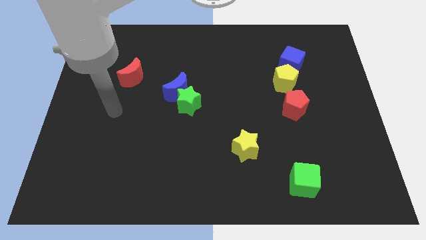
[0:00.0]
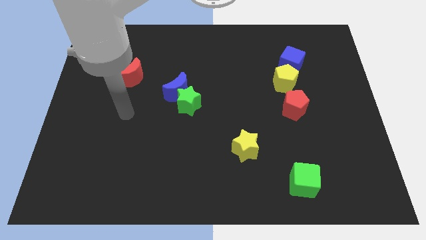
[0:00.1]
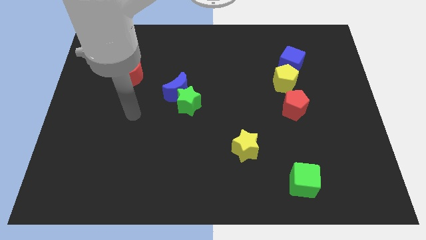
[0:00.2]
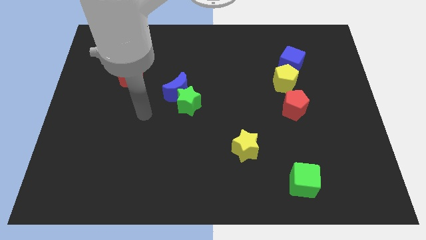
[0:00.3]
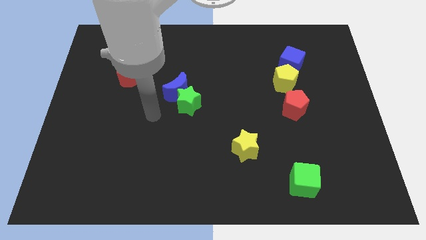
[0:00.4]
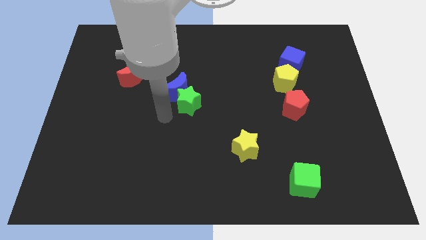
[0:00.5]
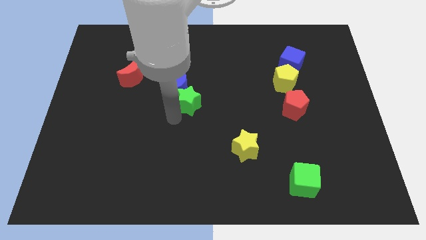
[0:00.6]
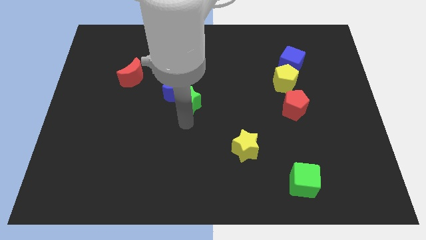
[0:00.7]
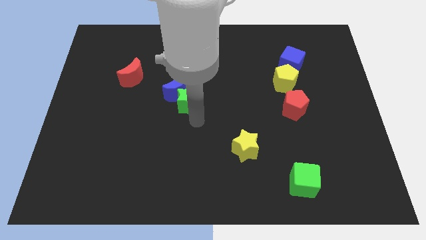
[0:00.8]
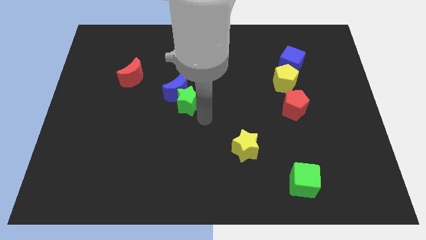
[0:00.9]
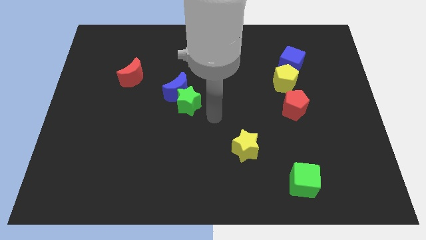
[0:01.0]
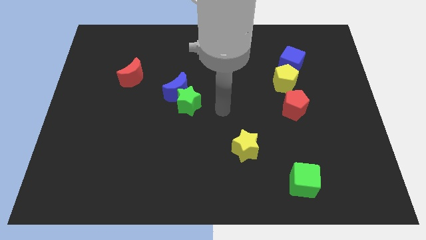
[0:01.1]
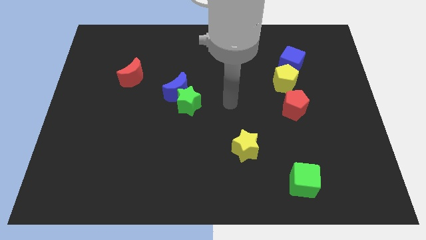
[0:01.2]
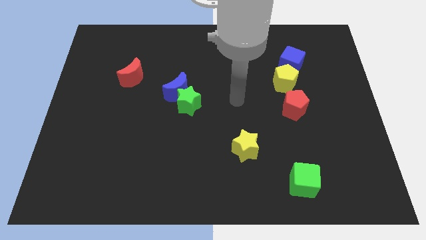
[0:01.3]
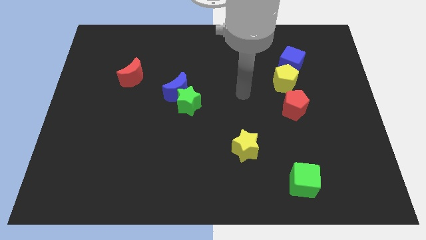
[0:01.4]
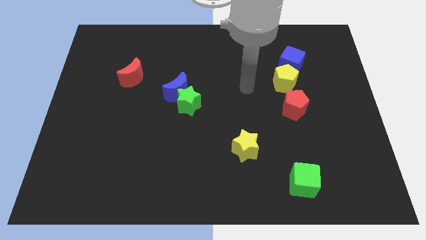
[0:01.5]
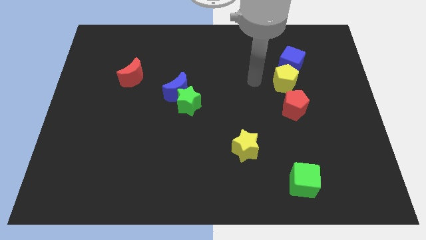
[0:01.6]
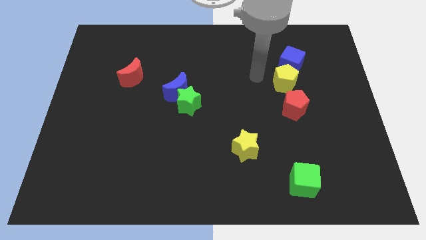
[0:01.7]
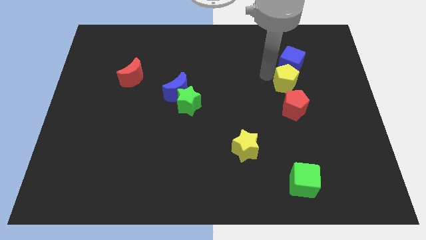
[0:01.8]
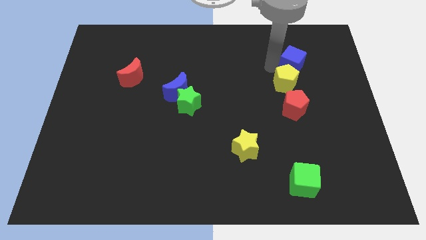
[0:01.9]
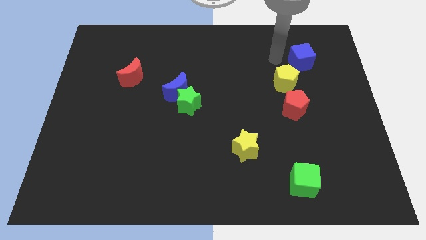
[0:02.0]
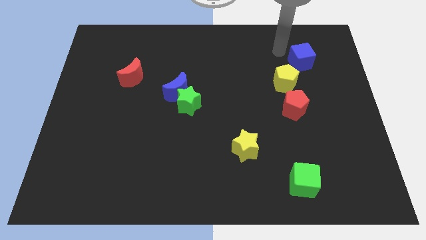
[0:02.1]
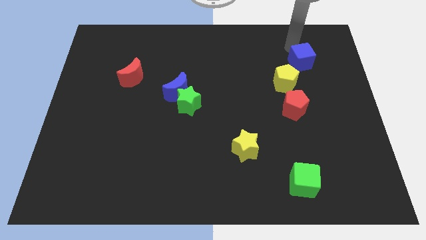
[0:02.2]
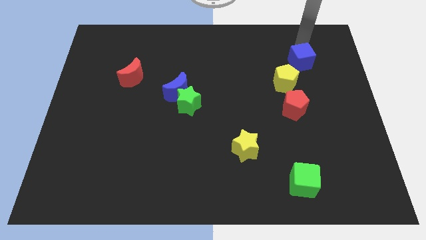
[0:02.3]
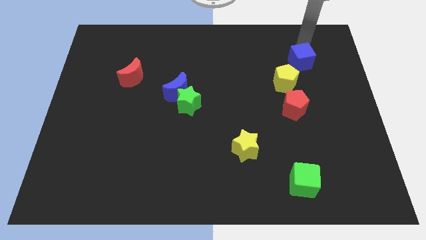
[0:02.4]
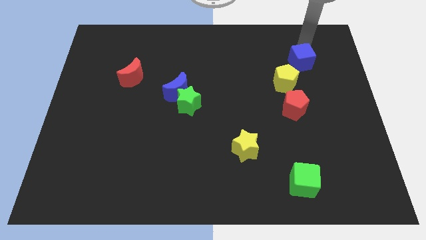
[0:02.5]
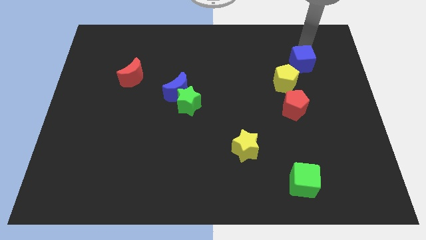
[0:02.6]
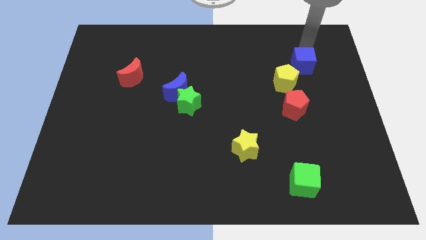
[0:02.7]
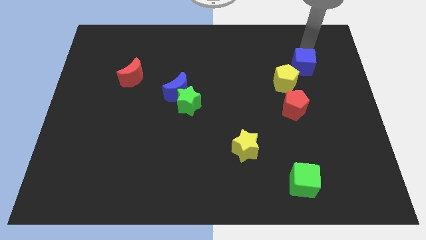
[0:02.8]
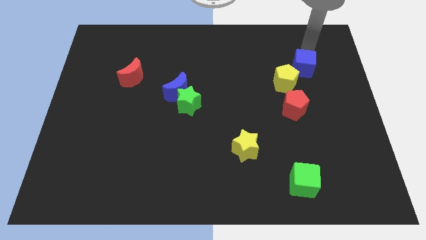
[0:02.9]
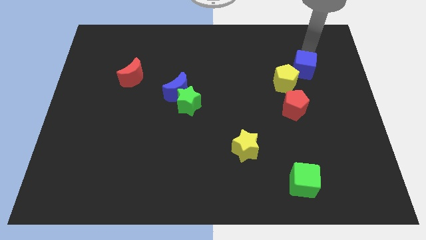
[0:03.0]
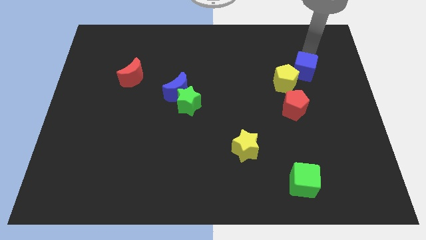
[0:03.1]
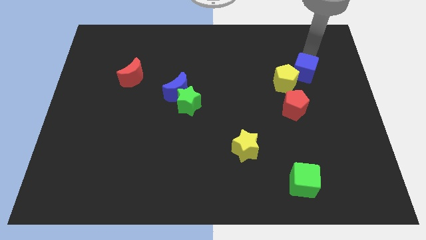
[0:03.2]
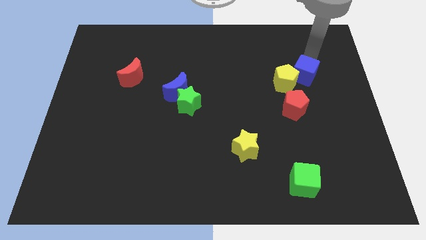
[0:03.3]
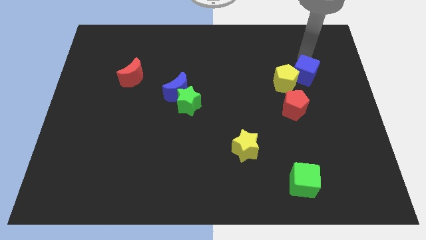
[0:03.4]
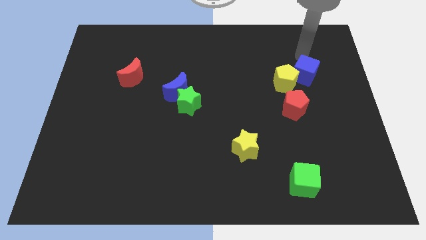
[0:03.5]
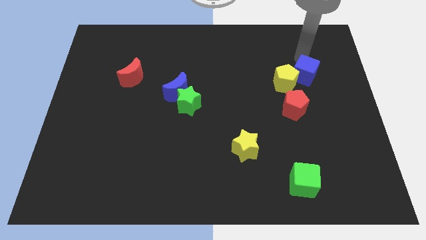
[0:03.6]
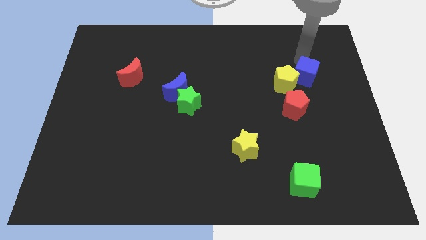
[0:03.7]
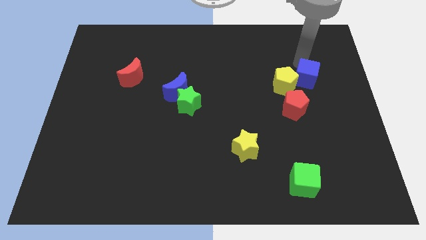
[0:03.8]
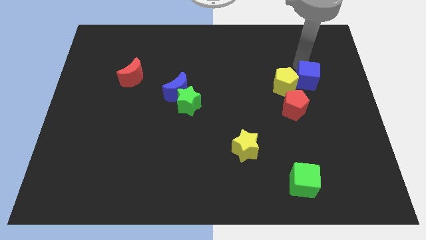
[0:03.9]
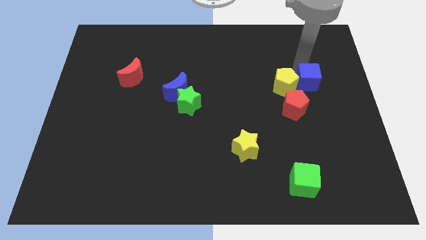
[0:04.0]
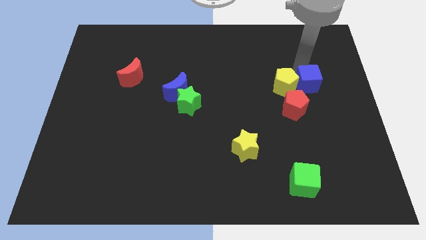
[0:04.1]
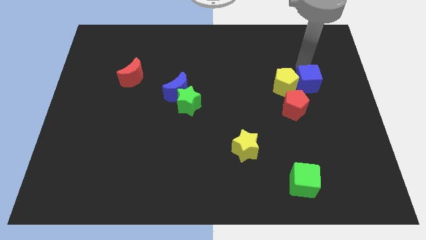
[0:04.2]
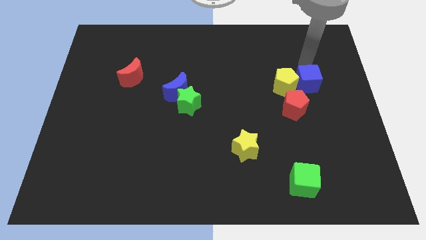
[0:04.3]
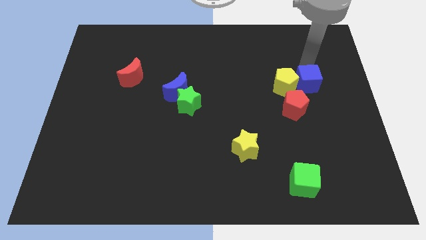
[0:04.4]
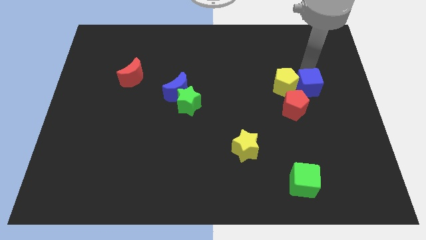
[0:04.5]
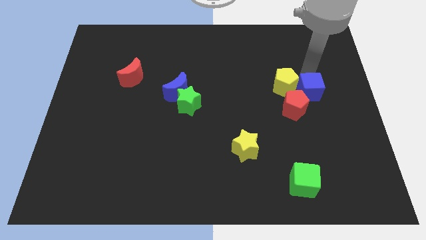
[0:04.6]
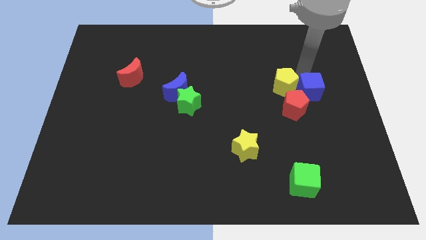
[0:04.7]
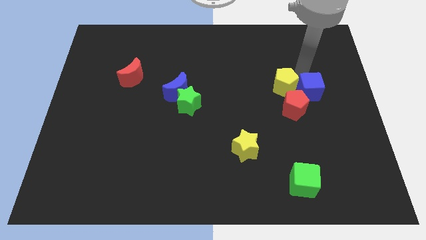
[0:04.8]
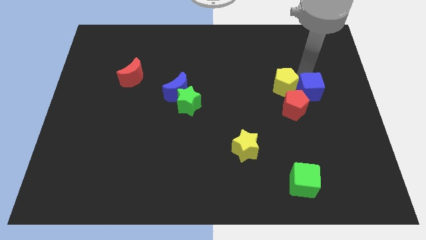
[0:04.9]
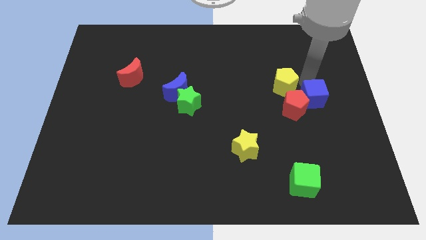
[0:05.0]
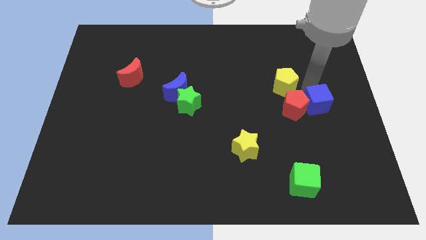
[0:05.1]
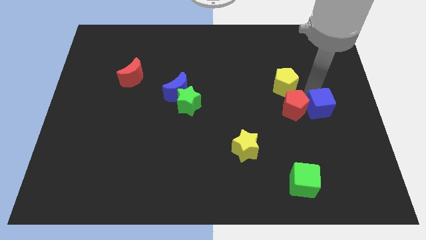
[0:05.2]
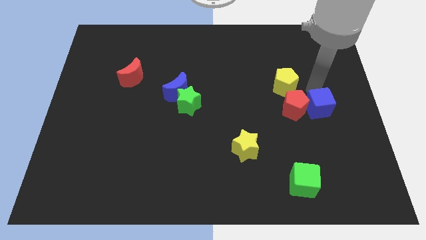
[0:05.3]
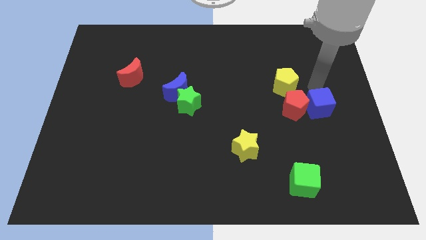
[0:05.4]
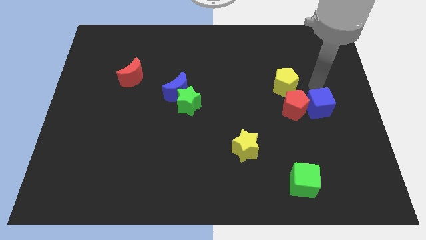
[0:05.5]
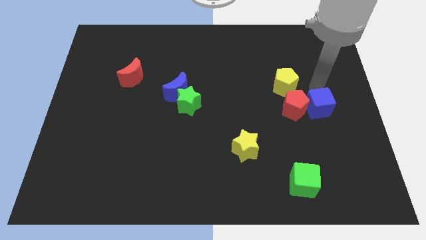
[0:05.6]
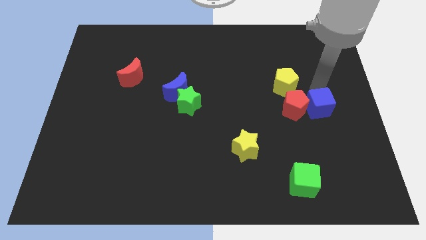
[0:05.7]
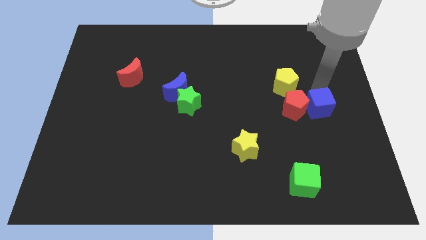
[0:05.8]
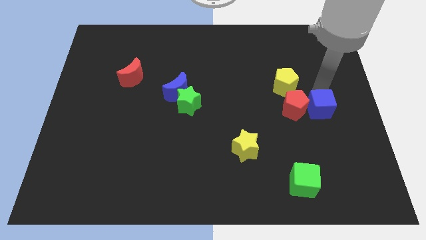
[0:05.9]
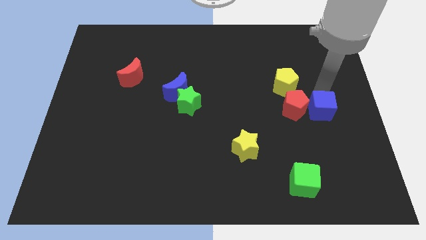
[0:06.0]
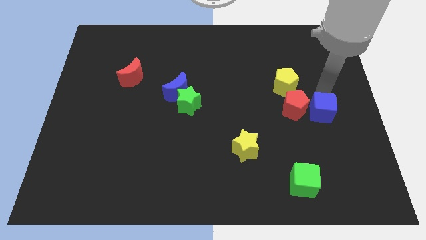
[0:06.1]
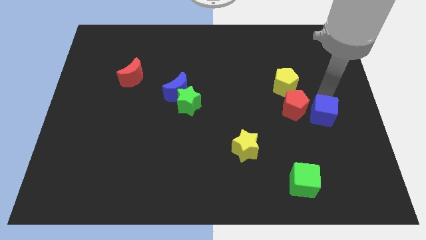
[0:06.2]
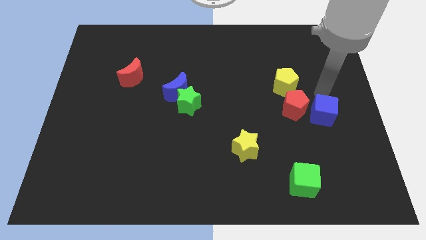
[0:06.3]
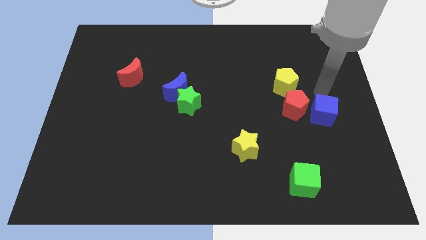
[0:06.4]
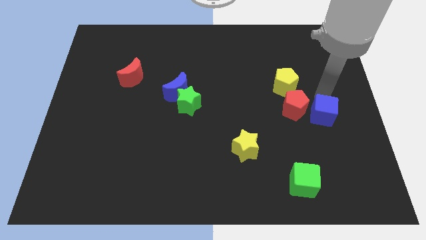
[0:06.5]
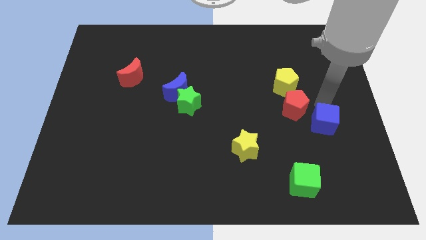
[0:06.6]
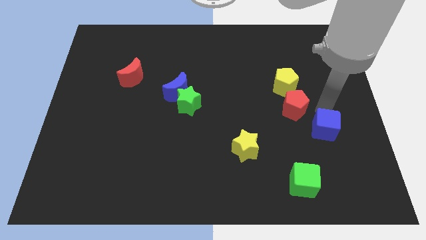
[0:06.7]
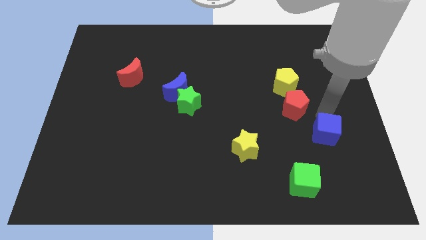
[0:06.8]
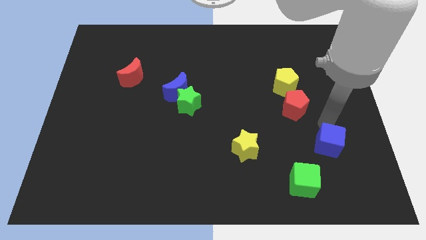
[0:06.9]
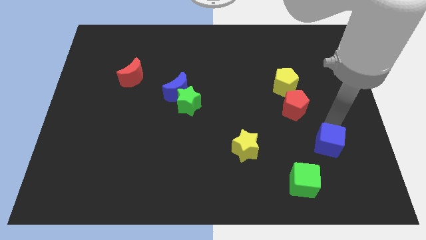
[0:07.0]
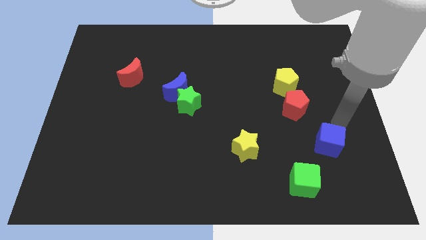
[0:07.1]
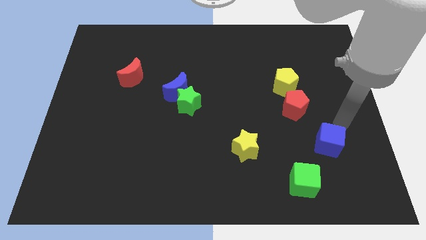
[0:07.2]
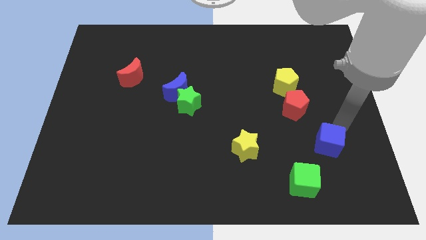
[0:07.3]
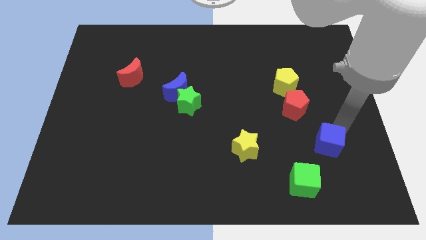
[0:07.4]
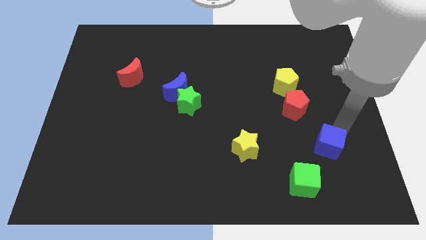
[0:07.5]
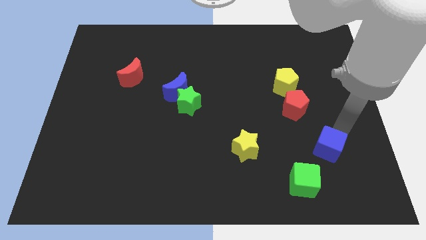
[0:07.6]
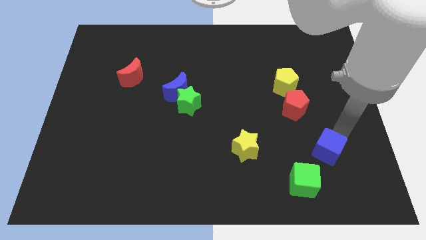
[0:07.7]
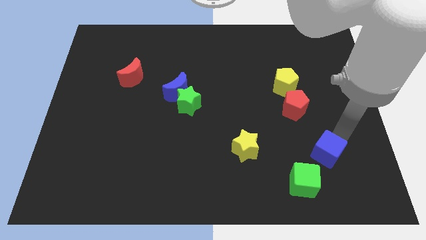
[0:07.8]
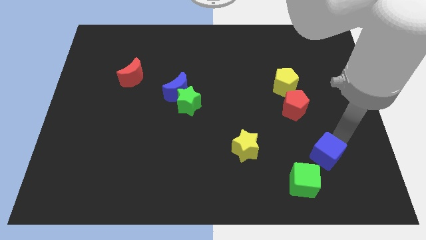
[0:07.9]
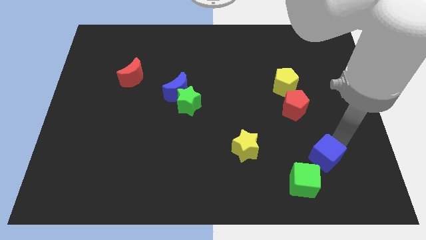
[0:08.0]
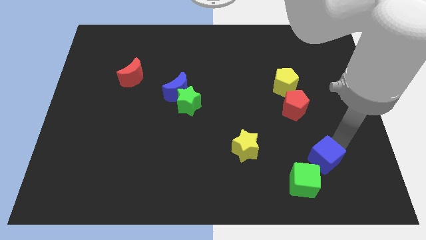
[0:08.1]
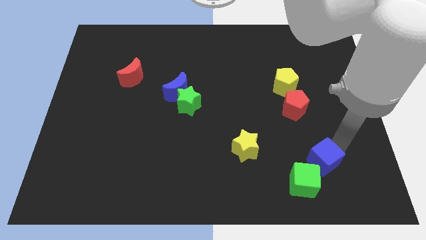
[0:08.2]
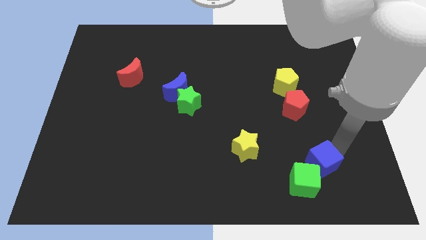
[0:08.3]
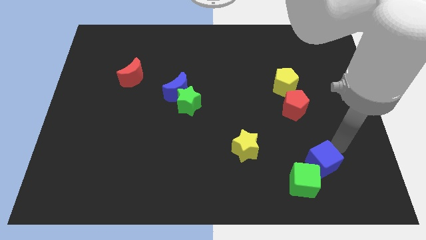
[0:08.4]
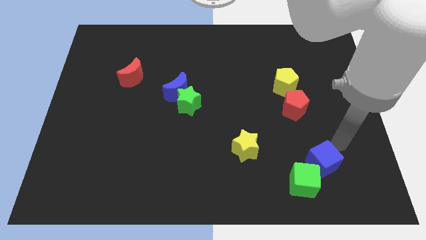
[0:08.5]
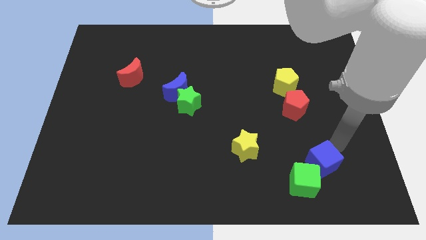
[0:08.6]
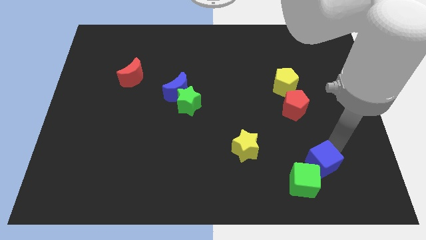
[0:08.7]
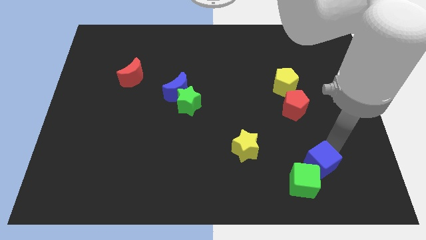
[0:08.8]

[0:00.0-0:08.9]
put the blue cube towards the green cube
